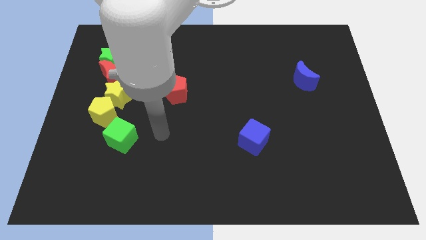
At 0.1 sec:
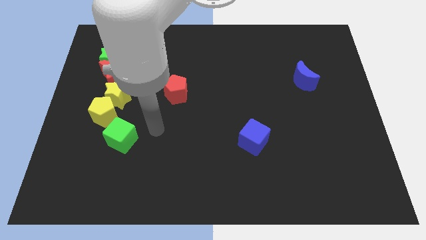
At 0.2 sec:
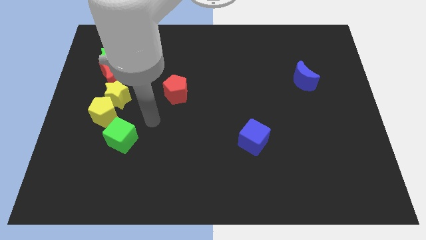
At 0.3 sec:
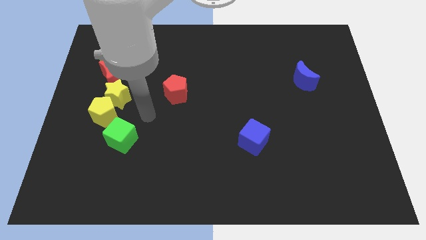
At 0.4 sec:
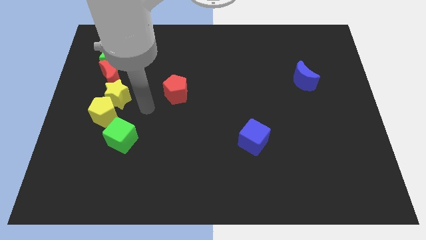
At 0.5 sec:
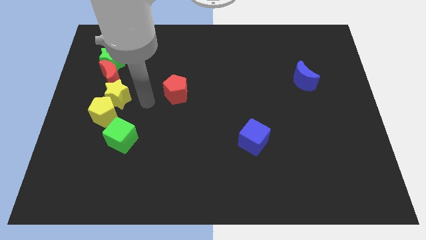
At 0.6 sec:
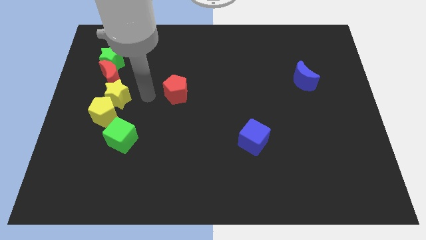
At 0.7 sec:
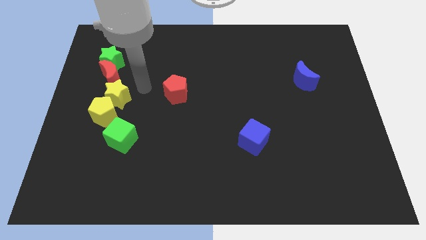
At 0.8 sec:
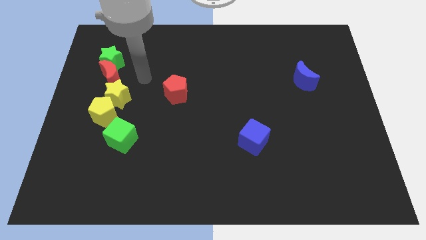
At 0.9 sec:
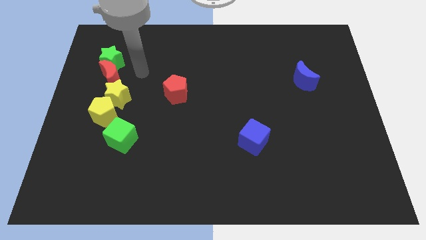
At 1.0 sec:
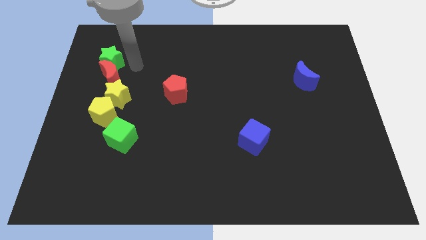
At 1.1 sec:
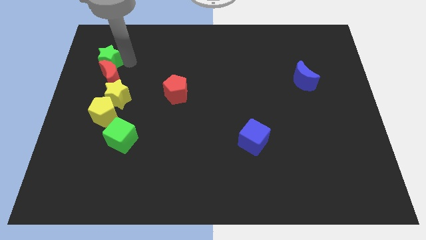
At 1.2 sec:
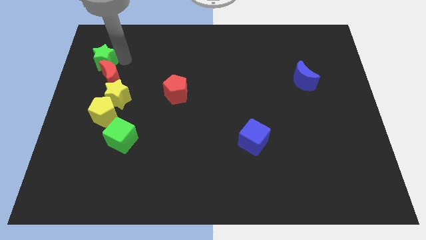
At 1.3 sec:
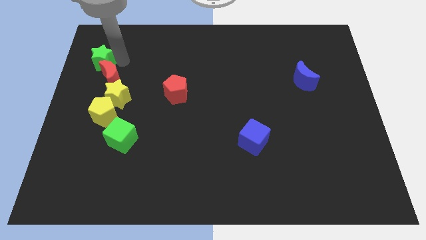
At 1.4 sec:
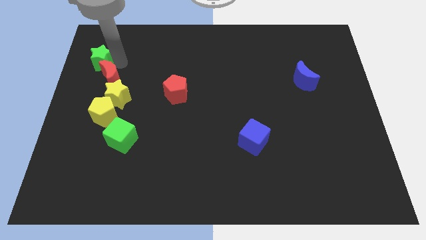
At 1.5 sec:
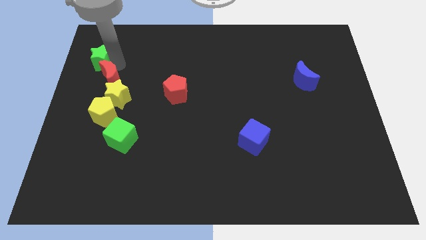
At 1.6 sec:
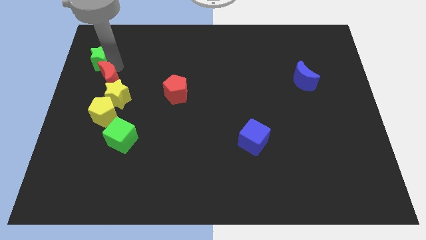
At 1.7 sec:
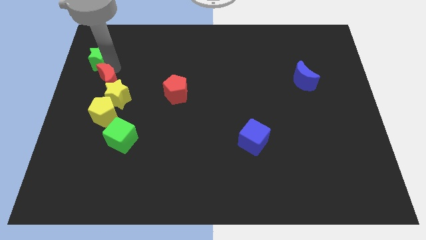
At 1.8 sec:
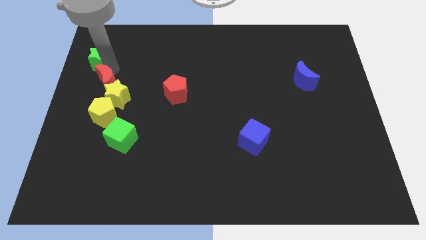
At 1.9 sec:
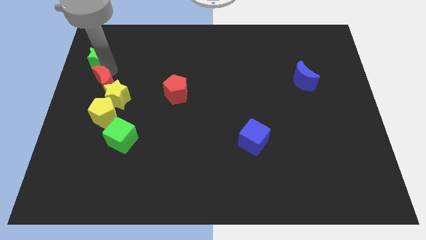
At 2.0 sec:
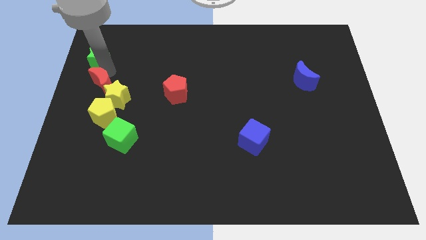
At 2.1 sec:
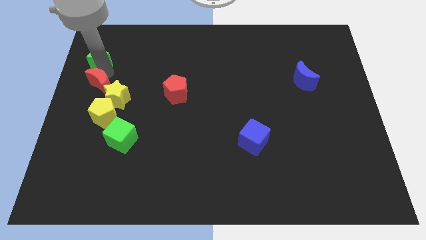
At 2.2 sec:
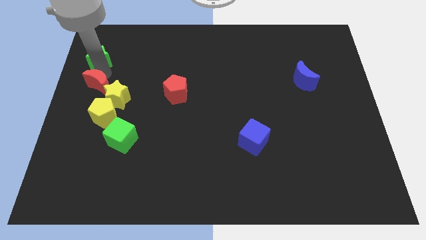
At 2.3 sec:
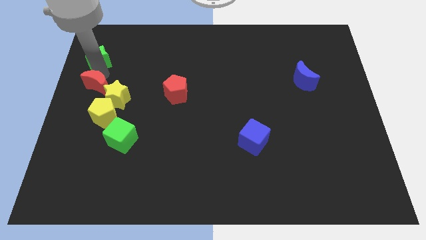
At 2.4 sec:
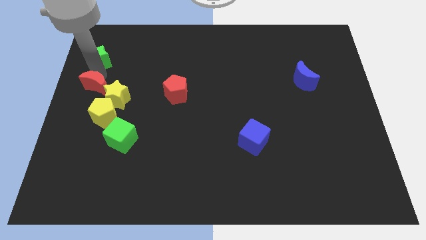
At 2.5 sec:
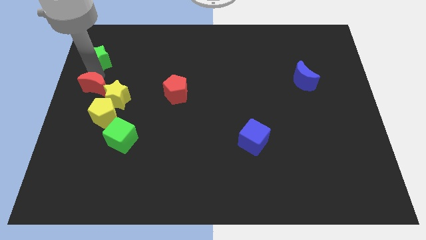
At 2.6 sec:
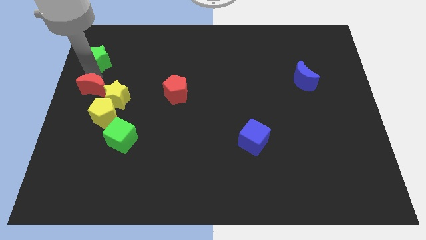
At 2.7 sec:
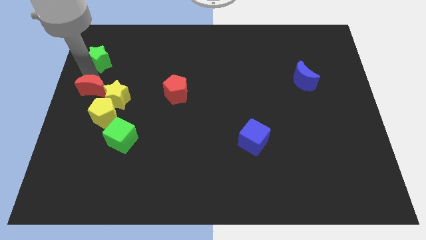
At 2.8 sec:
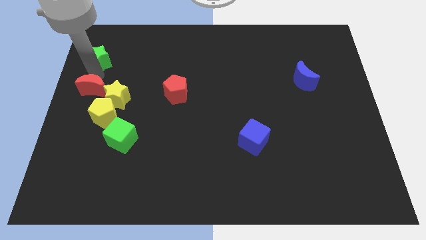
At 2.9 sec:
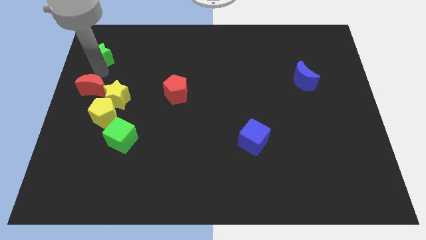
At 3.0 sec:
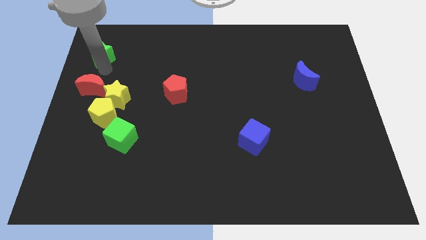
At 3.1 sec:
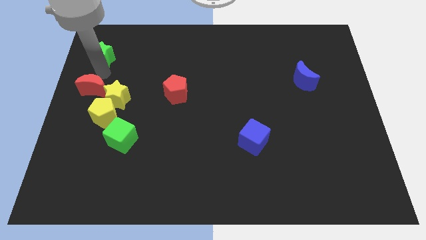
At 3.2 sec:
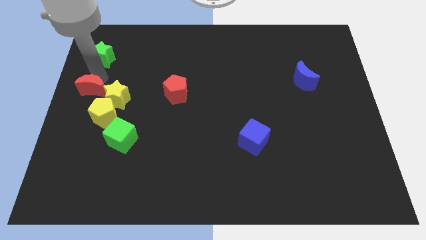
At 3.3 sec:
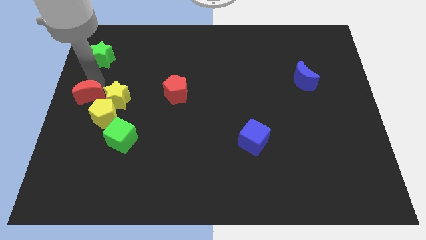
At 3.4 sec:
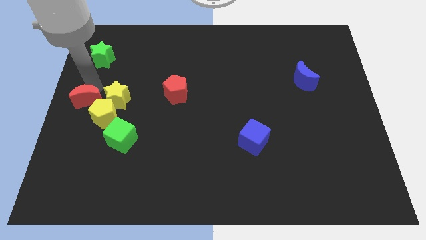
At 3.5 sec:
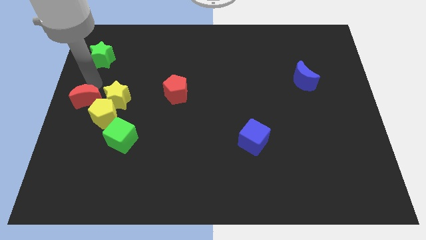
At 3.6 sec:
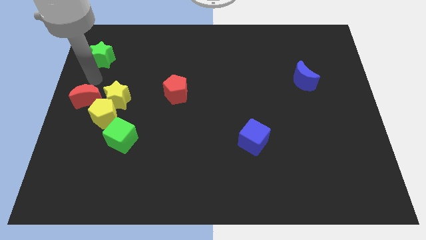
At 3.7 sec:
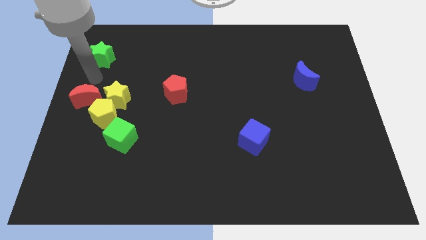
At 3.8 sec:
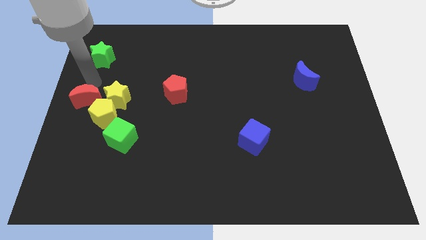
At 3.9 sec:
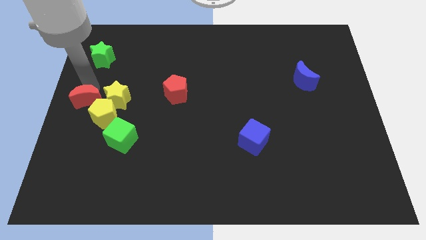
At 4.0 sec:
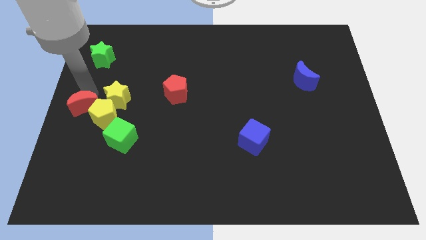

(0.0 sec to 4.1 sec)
move the red moon a little downwards

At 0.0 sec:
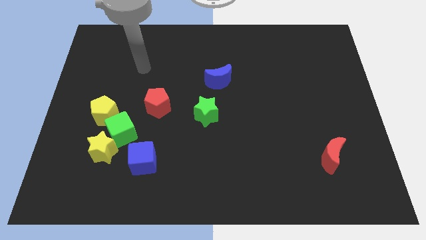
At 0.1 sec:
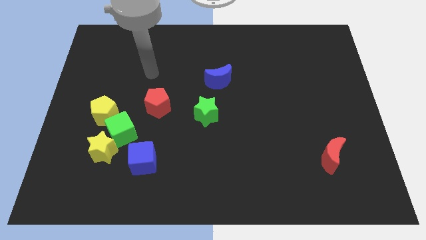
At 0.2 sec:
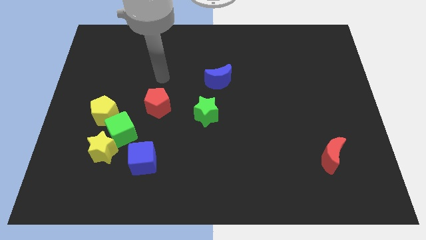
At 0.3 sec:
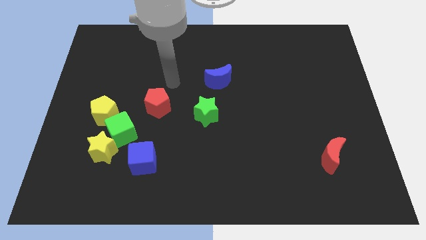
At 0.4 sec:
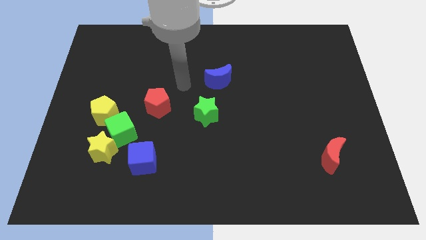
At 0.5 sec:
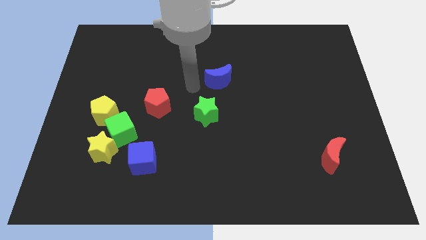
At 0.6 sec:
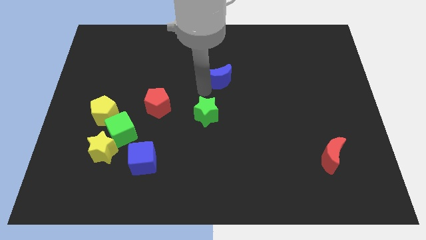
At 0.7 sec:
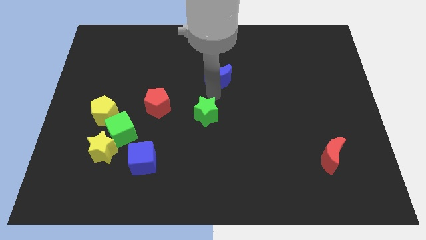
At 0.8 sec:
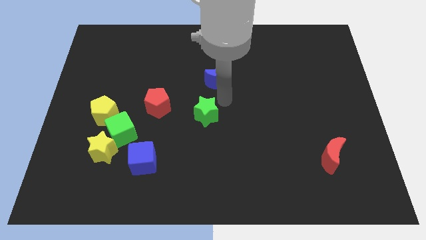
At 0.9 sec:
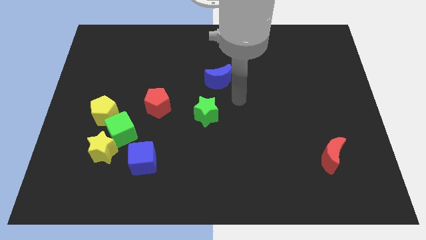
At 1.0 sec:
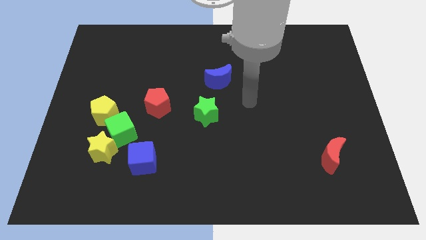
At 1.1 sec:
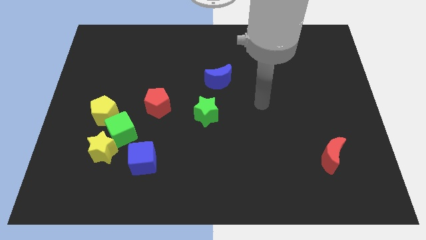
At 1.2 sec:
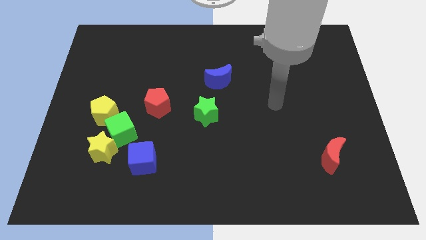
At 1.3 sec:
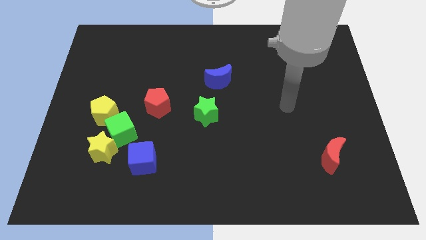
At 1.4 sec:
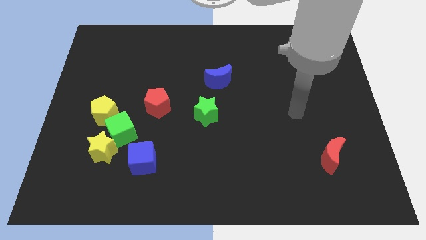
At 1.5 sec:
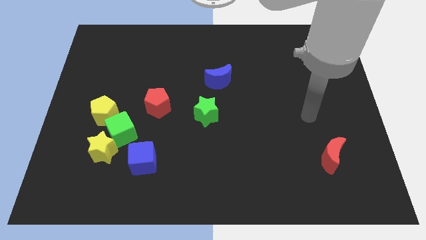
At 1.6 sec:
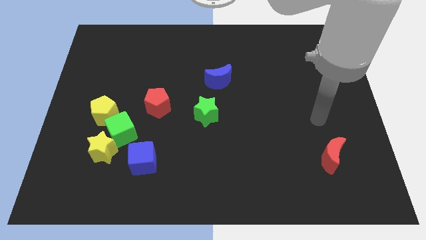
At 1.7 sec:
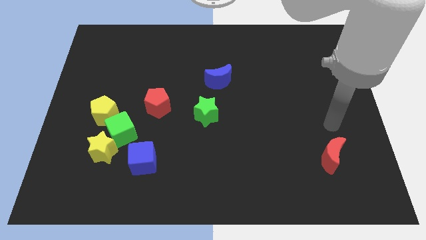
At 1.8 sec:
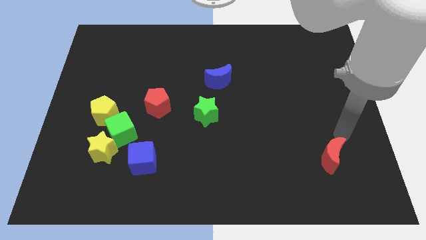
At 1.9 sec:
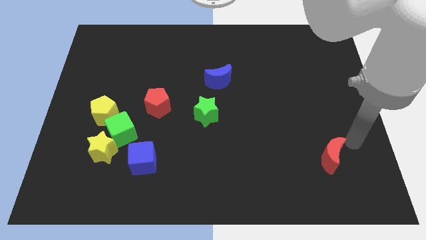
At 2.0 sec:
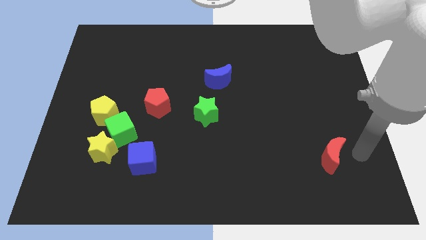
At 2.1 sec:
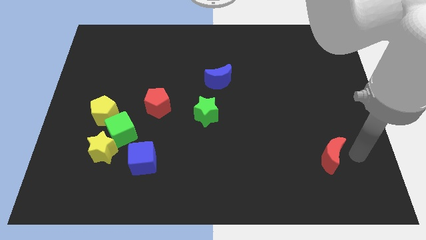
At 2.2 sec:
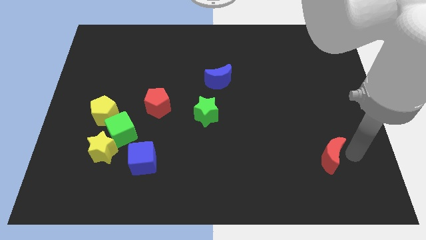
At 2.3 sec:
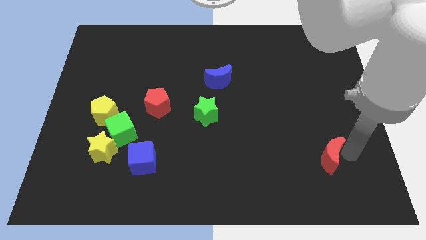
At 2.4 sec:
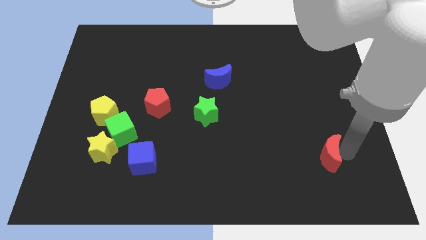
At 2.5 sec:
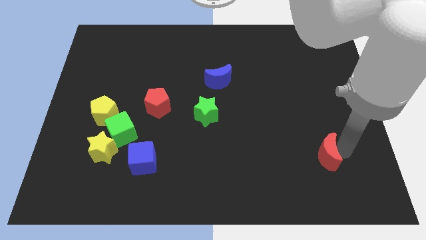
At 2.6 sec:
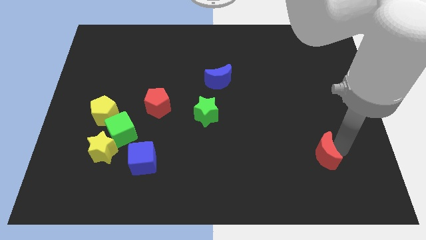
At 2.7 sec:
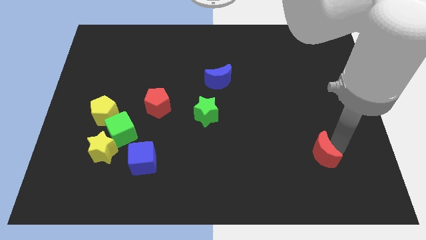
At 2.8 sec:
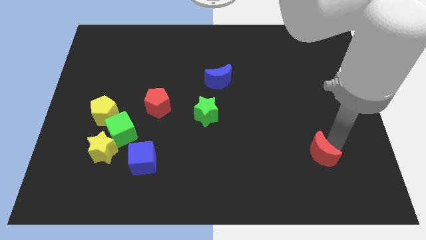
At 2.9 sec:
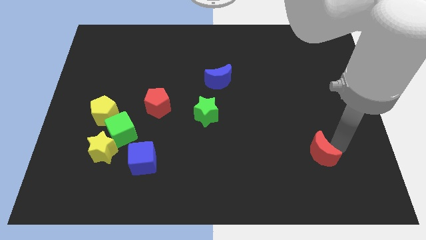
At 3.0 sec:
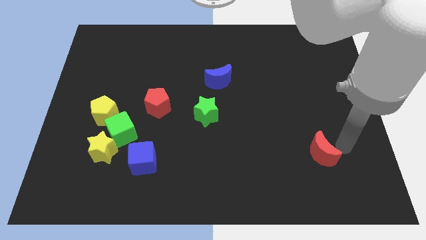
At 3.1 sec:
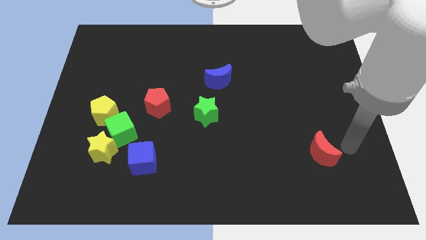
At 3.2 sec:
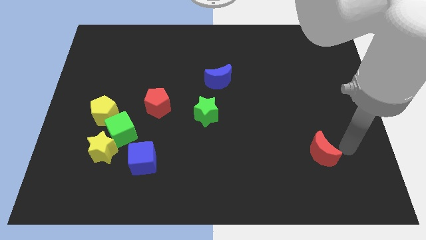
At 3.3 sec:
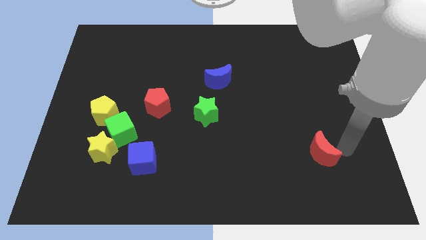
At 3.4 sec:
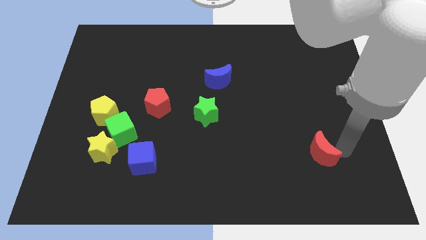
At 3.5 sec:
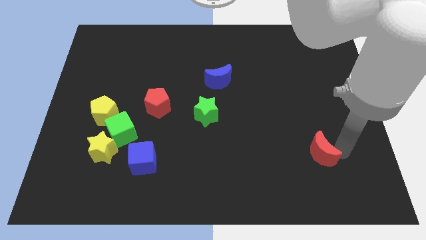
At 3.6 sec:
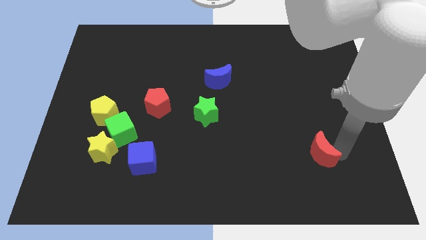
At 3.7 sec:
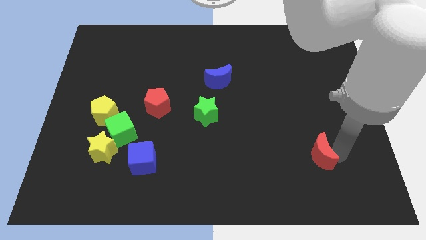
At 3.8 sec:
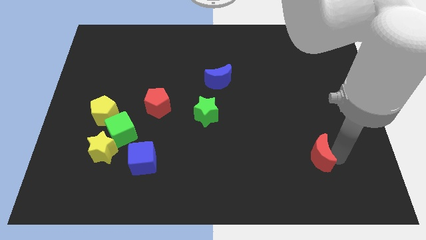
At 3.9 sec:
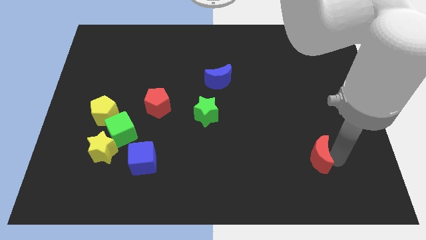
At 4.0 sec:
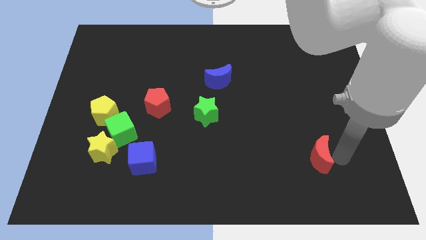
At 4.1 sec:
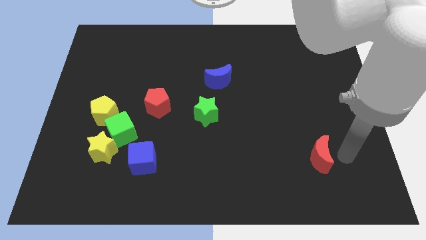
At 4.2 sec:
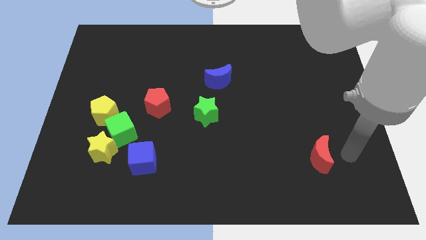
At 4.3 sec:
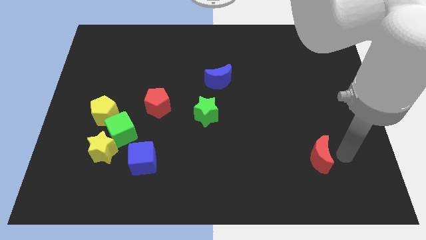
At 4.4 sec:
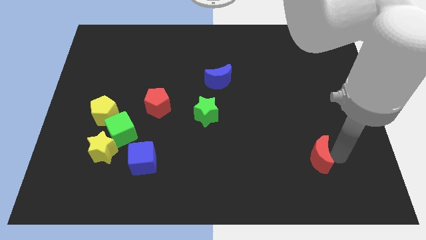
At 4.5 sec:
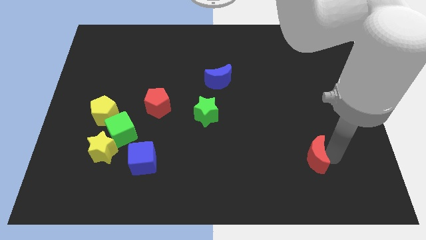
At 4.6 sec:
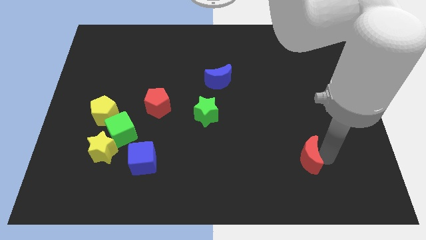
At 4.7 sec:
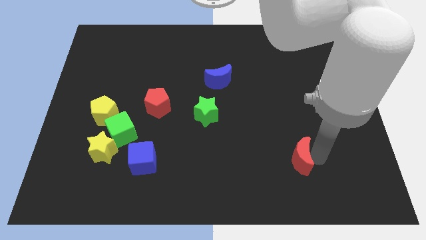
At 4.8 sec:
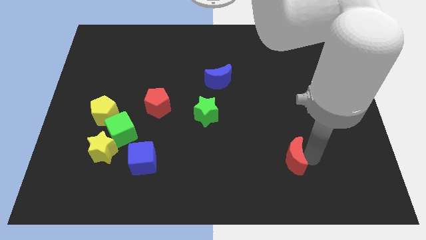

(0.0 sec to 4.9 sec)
push the red moon a little to the left
